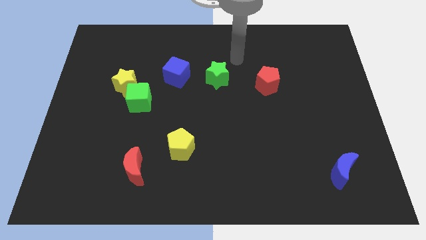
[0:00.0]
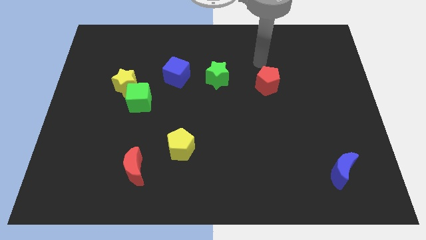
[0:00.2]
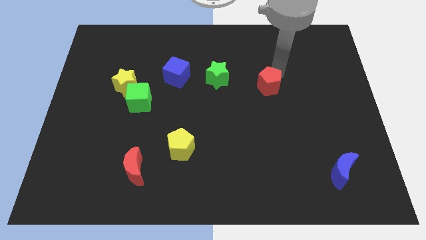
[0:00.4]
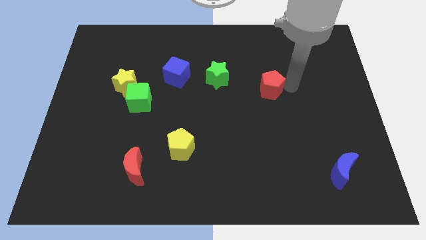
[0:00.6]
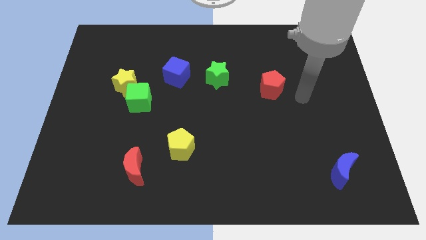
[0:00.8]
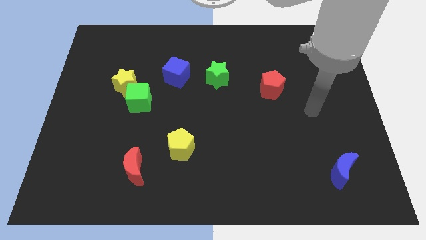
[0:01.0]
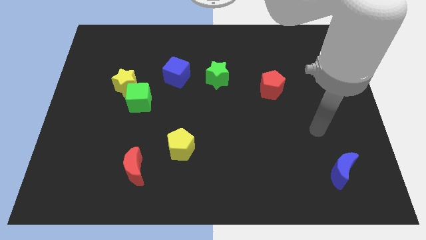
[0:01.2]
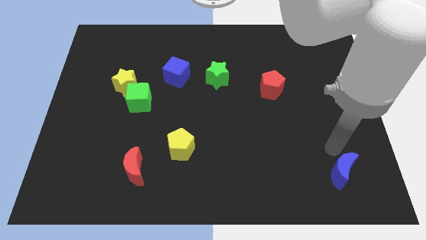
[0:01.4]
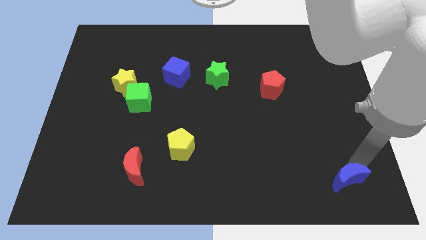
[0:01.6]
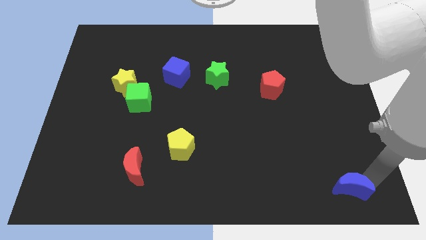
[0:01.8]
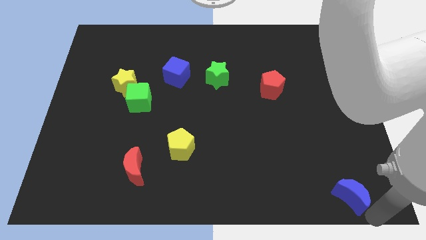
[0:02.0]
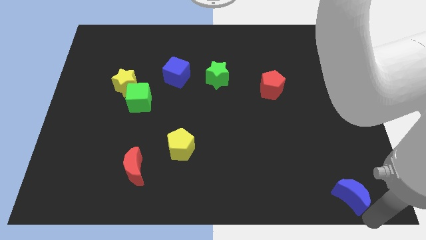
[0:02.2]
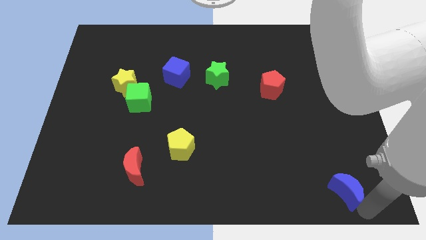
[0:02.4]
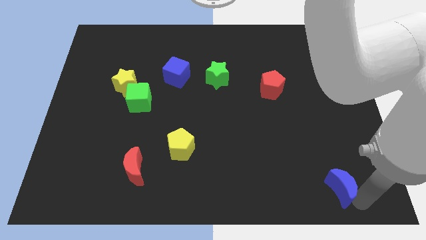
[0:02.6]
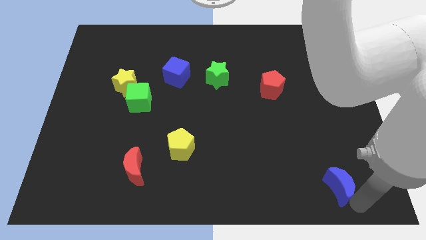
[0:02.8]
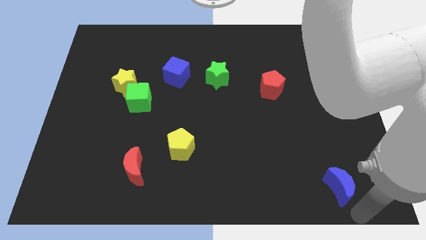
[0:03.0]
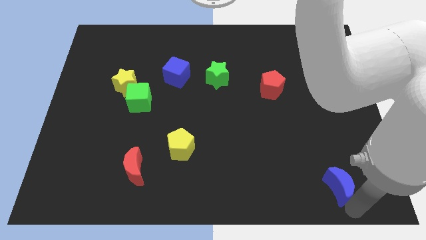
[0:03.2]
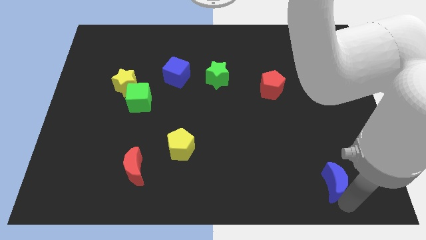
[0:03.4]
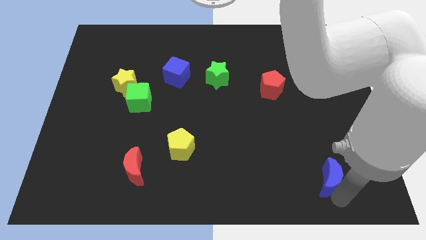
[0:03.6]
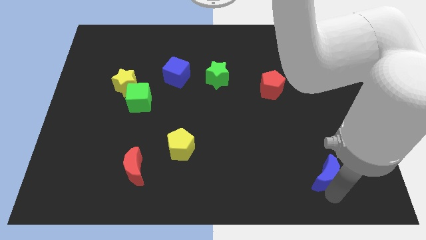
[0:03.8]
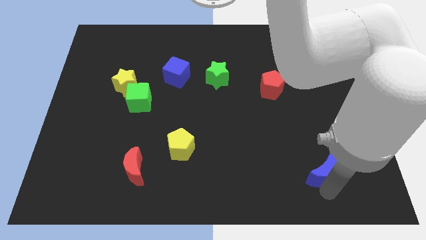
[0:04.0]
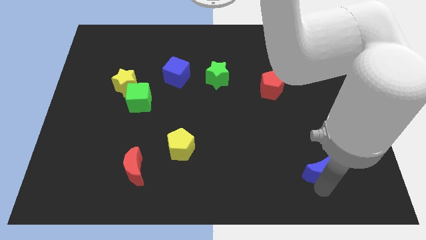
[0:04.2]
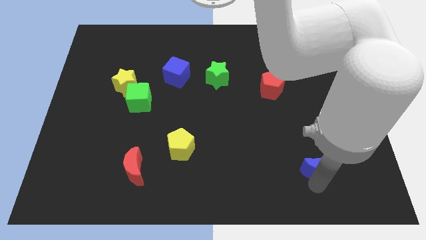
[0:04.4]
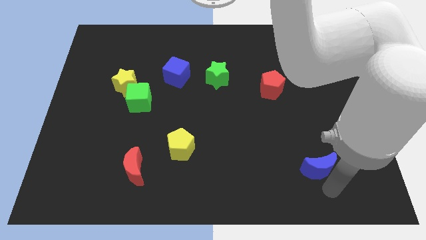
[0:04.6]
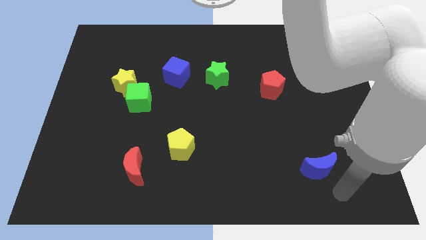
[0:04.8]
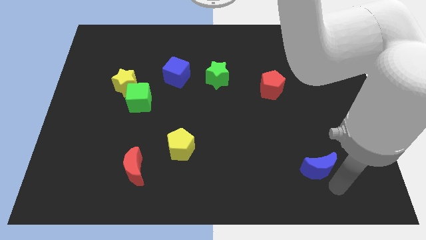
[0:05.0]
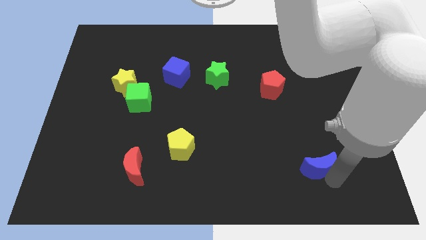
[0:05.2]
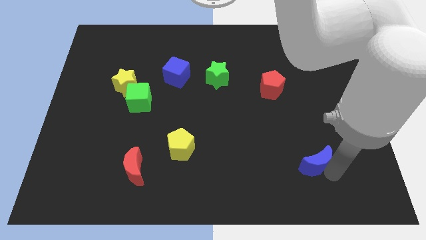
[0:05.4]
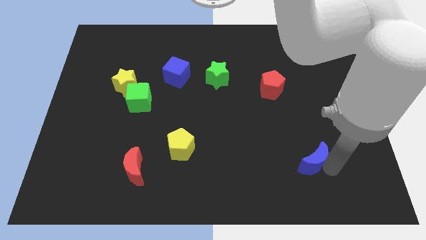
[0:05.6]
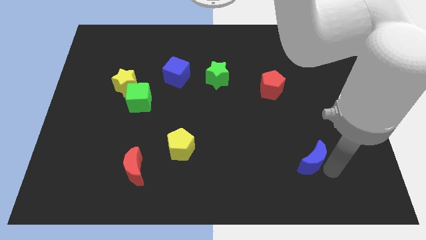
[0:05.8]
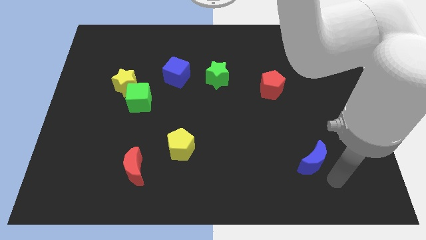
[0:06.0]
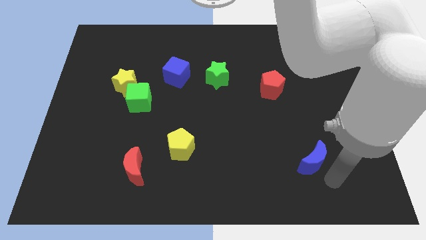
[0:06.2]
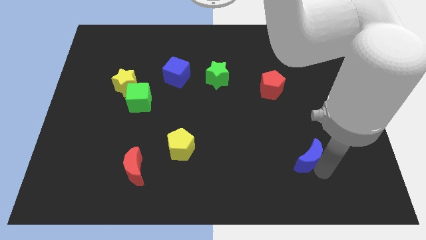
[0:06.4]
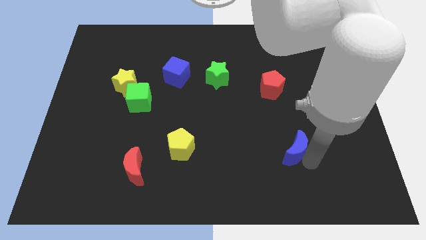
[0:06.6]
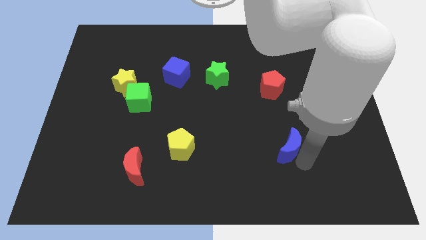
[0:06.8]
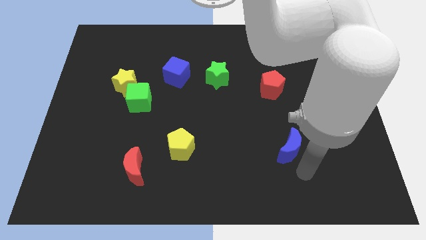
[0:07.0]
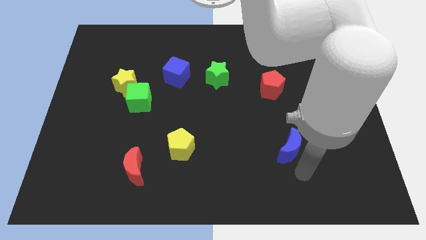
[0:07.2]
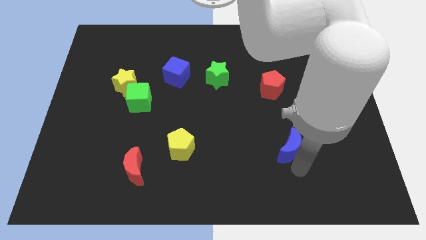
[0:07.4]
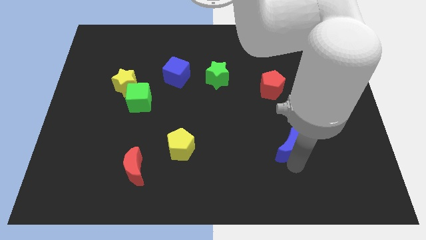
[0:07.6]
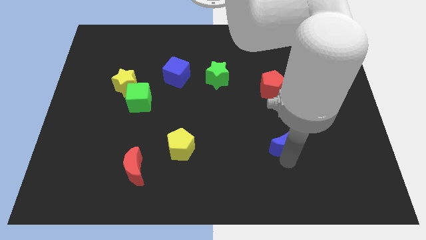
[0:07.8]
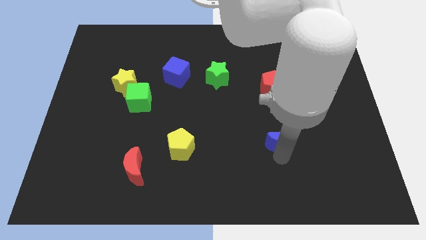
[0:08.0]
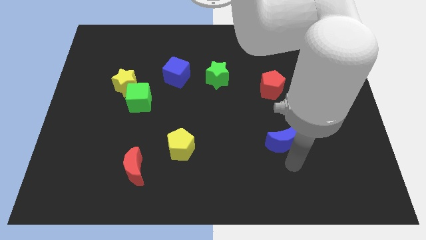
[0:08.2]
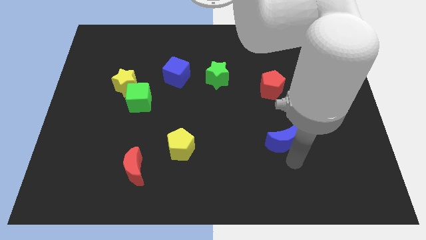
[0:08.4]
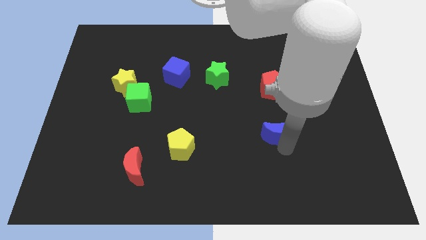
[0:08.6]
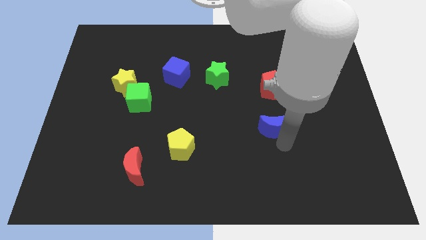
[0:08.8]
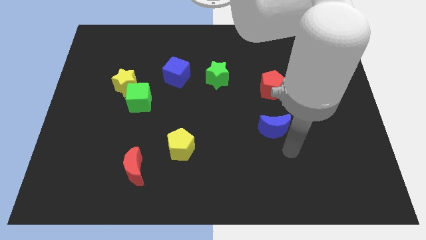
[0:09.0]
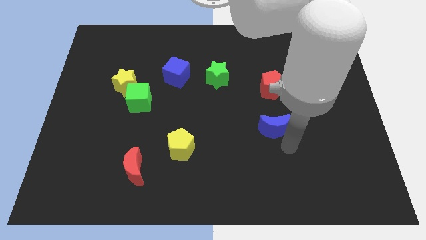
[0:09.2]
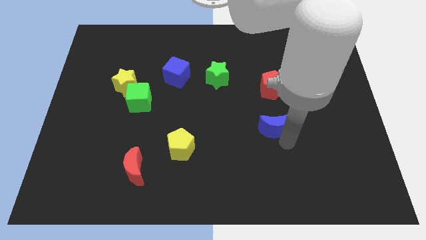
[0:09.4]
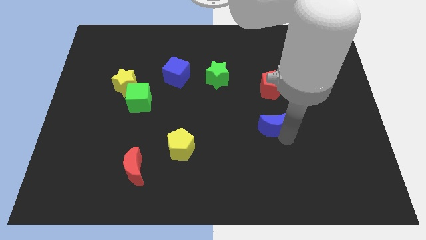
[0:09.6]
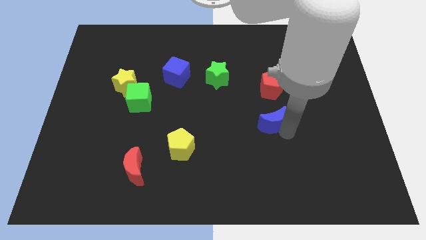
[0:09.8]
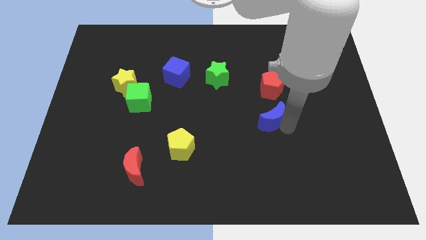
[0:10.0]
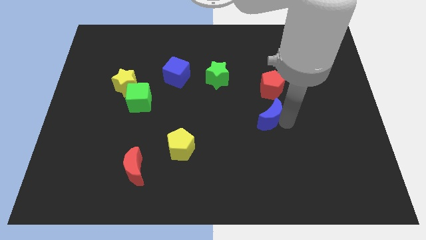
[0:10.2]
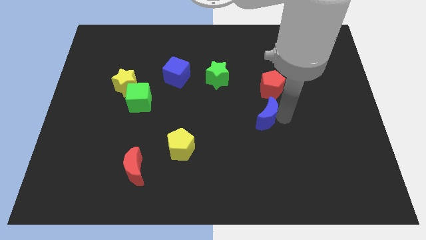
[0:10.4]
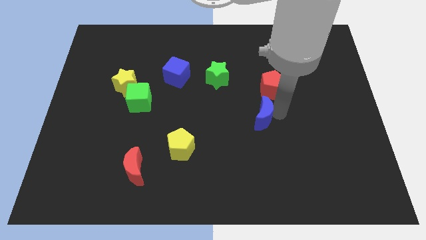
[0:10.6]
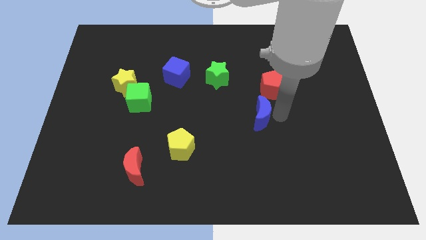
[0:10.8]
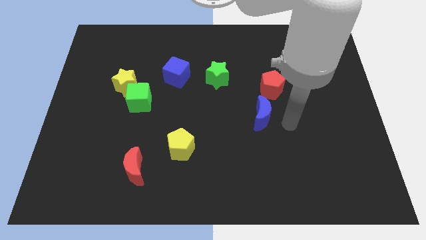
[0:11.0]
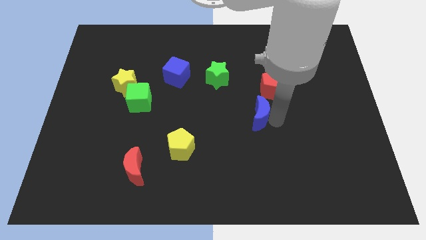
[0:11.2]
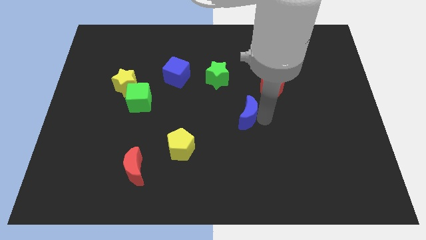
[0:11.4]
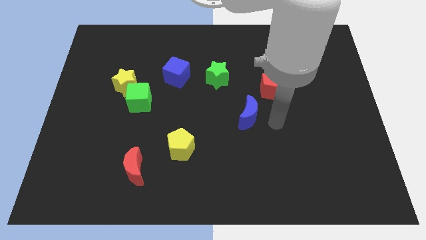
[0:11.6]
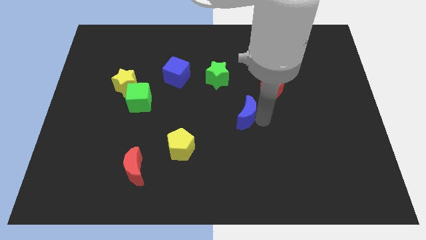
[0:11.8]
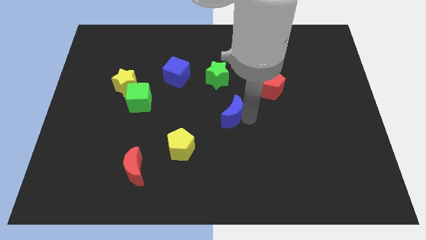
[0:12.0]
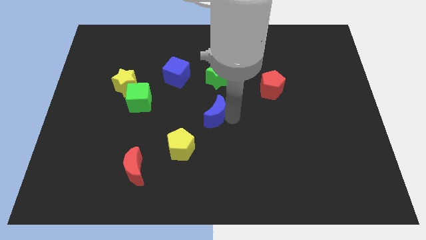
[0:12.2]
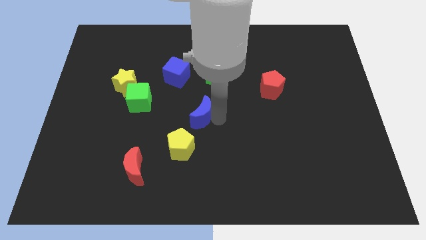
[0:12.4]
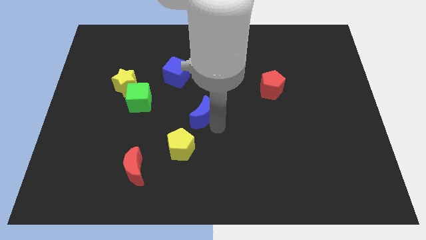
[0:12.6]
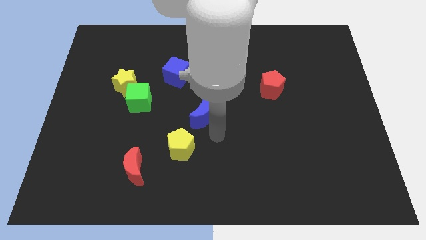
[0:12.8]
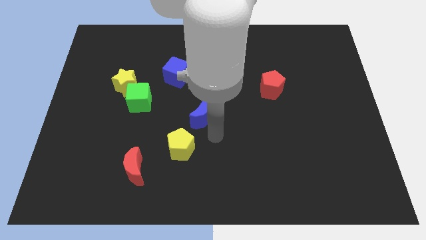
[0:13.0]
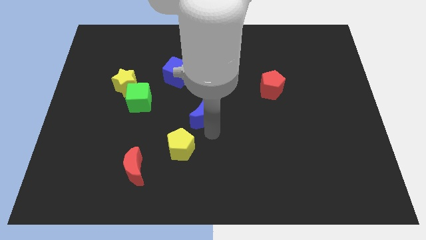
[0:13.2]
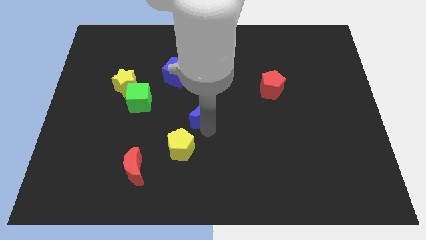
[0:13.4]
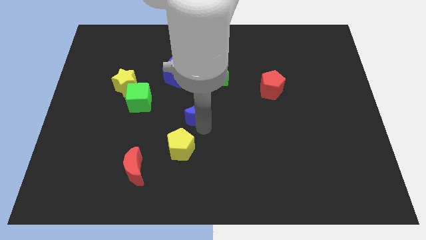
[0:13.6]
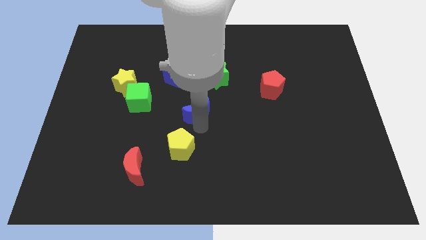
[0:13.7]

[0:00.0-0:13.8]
put the blue moon to the right of the green cube
